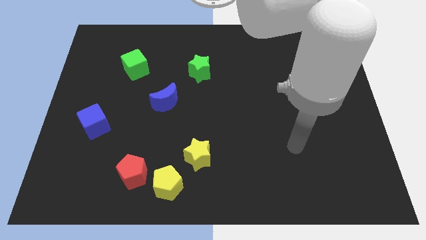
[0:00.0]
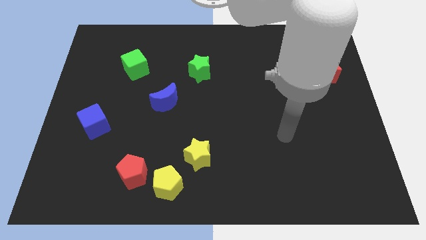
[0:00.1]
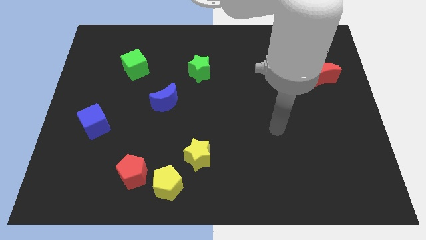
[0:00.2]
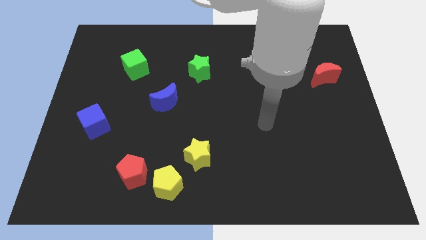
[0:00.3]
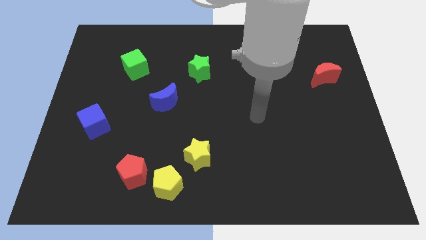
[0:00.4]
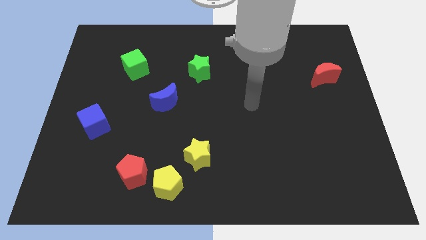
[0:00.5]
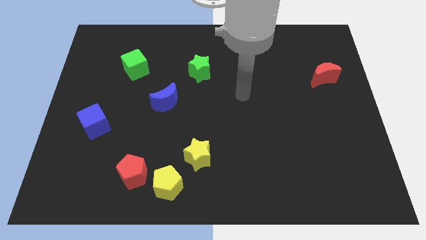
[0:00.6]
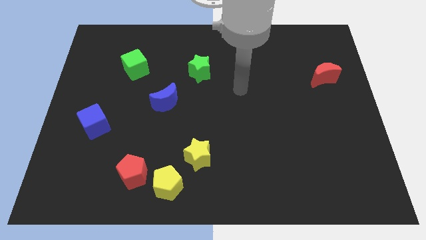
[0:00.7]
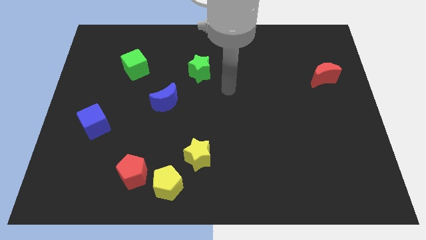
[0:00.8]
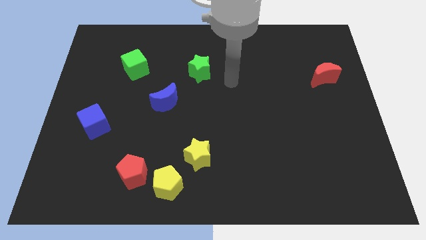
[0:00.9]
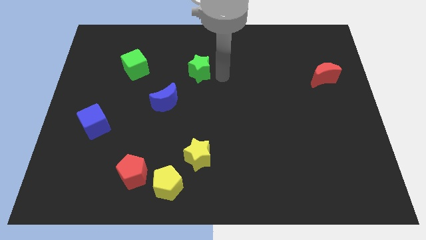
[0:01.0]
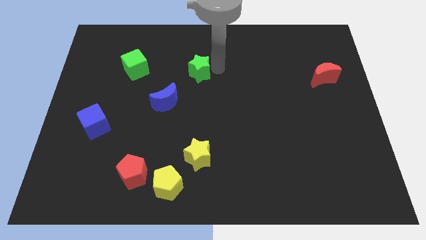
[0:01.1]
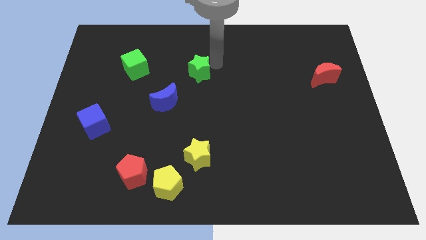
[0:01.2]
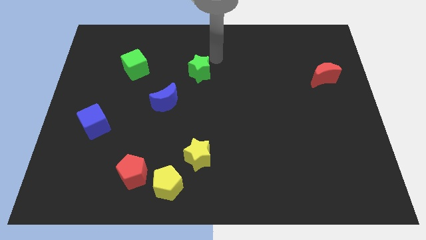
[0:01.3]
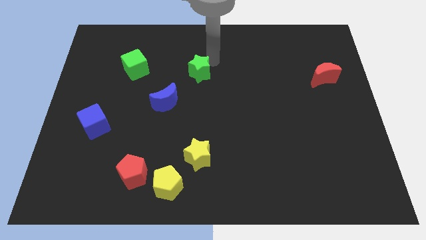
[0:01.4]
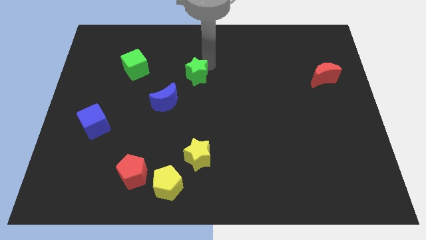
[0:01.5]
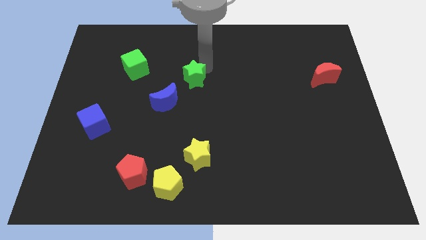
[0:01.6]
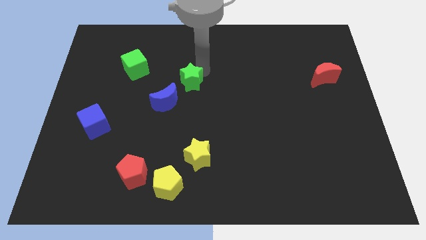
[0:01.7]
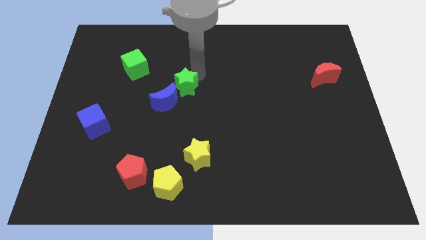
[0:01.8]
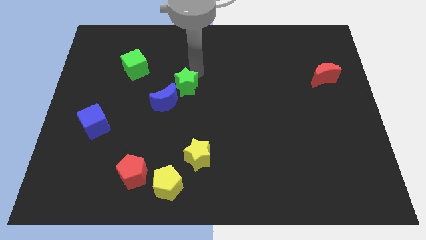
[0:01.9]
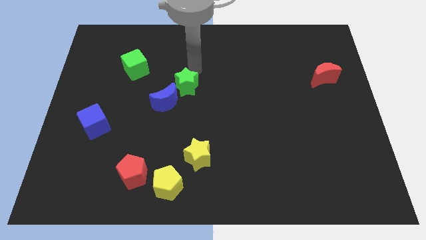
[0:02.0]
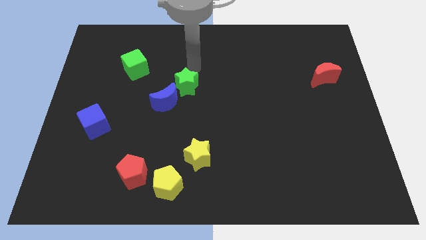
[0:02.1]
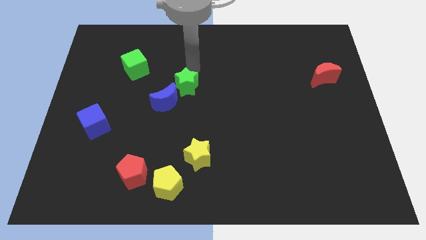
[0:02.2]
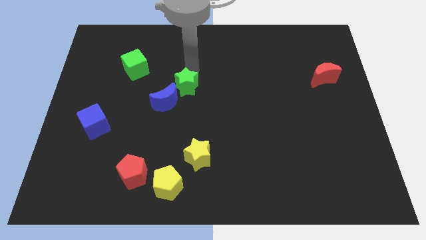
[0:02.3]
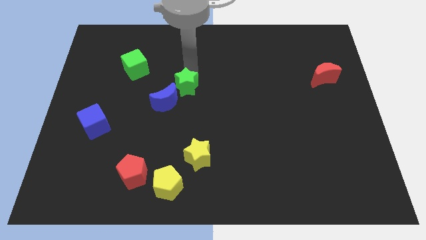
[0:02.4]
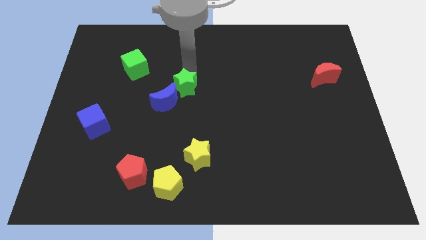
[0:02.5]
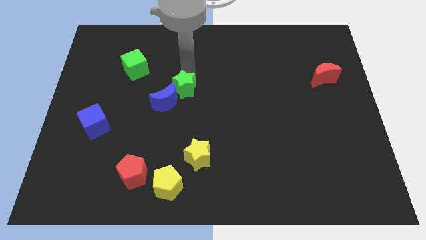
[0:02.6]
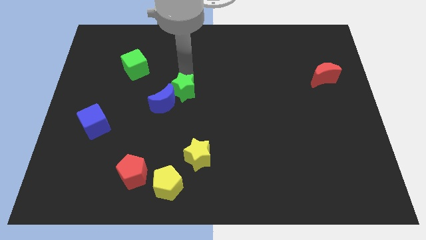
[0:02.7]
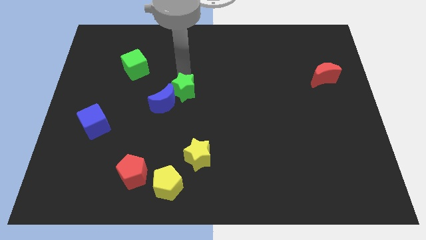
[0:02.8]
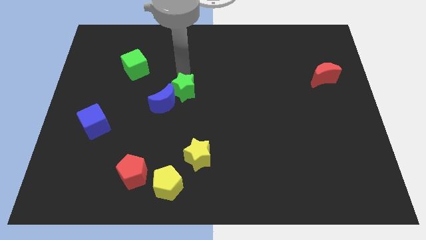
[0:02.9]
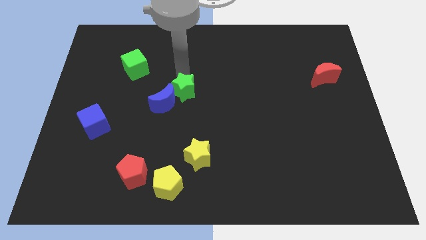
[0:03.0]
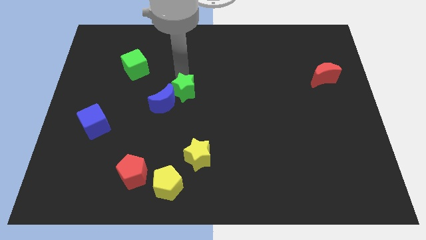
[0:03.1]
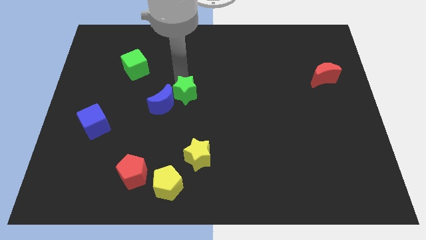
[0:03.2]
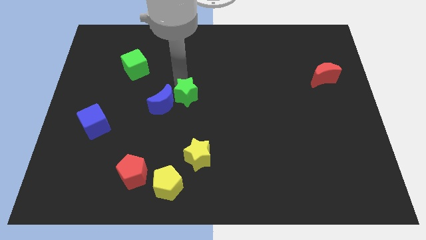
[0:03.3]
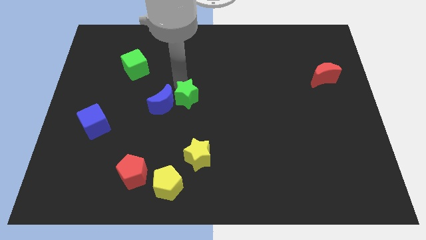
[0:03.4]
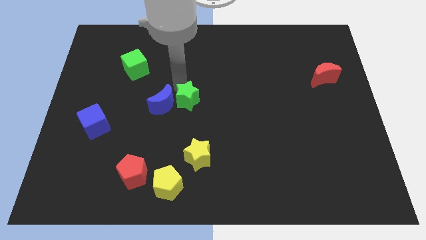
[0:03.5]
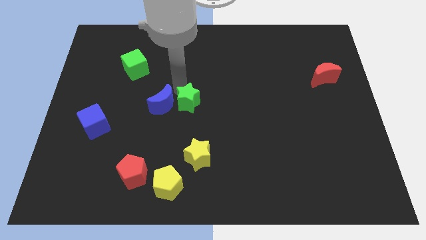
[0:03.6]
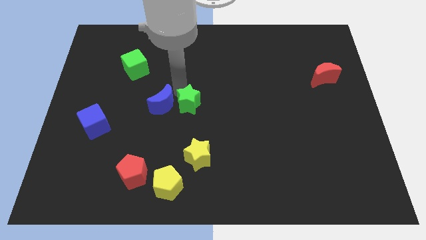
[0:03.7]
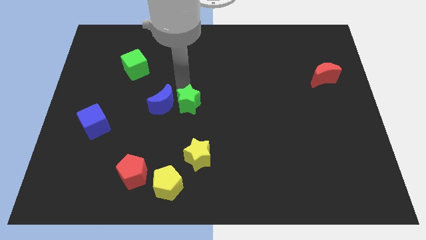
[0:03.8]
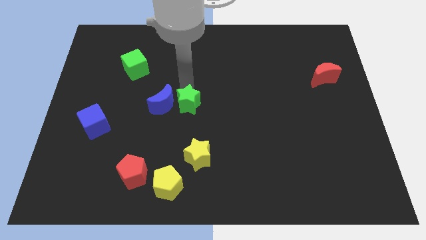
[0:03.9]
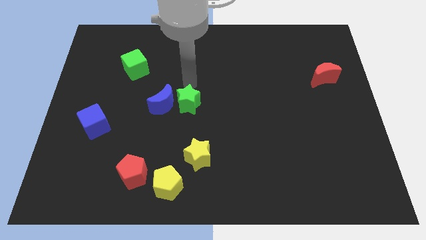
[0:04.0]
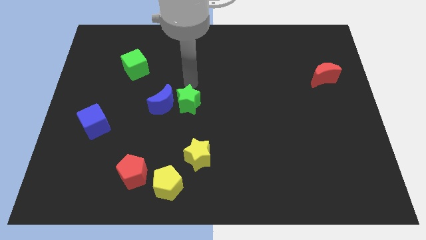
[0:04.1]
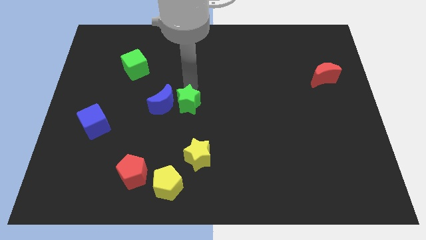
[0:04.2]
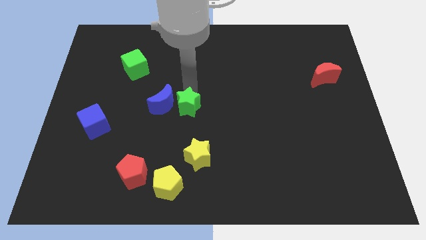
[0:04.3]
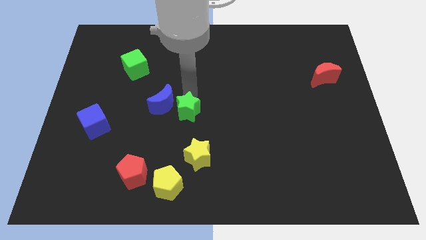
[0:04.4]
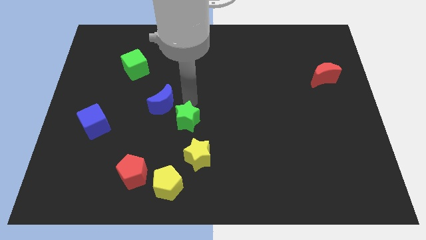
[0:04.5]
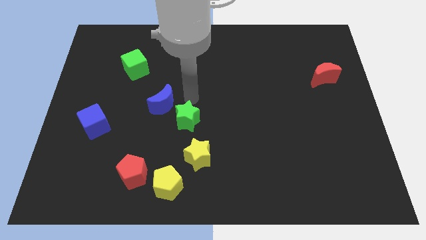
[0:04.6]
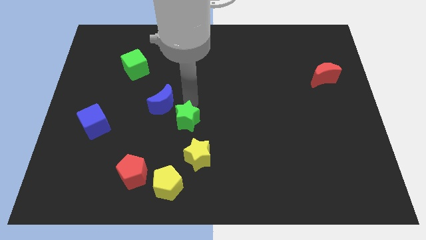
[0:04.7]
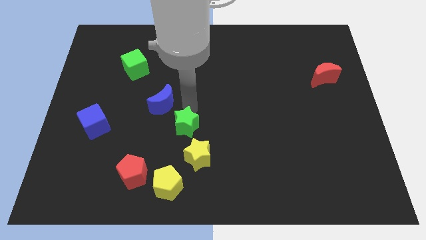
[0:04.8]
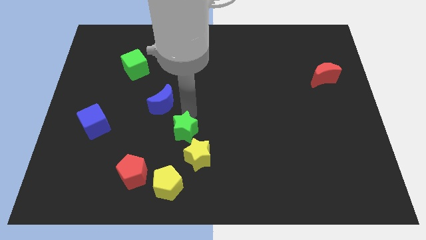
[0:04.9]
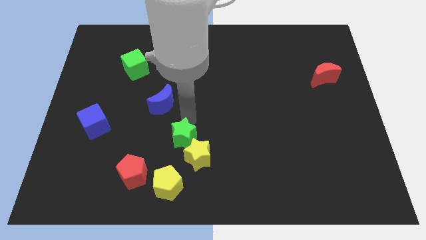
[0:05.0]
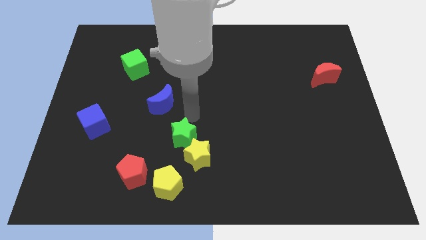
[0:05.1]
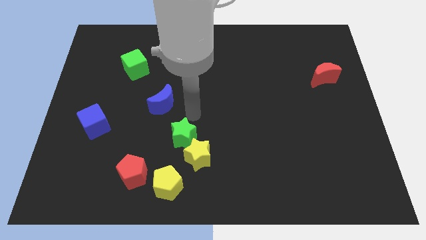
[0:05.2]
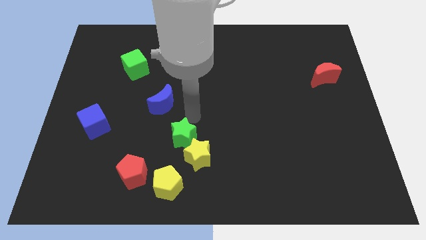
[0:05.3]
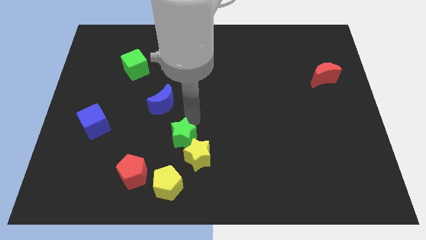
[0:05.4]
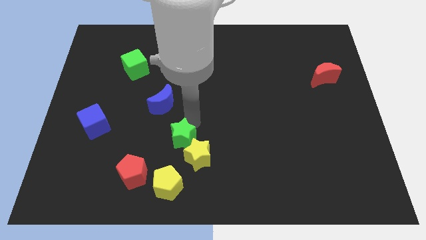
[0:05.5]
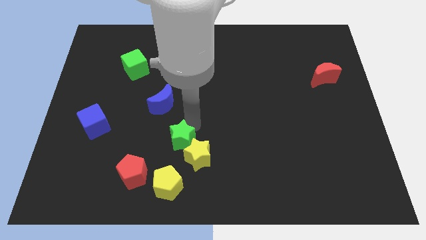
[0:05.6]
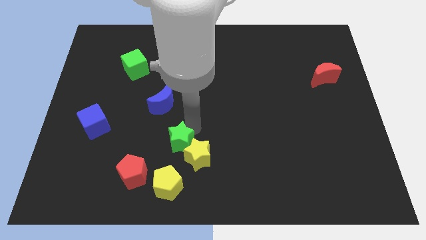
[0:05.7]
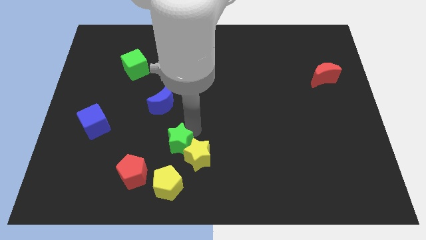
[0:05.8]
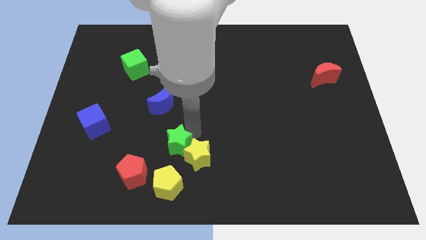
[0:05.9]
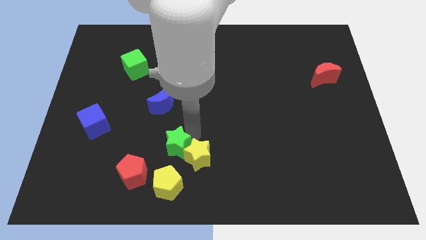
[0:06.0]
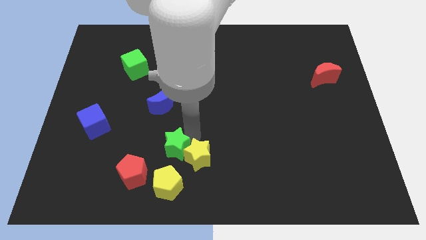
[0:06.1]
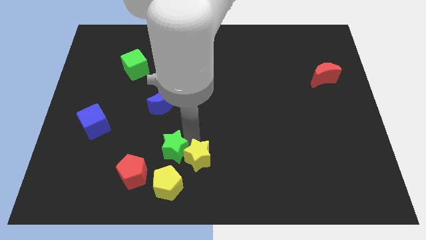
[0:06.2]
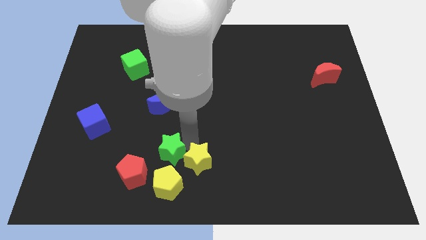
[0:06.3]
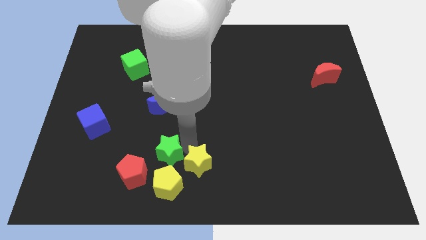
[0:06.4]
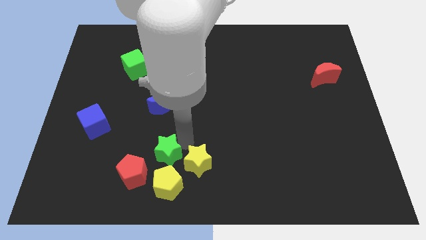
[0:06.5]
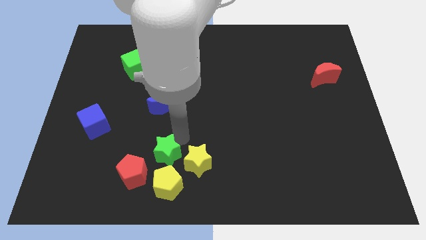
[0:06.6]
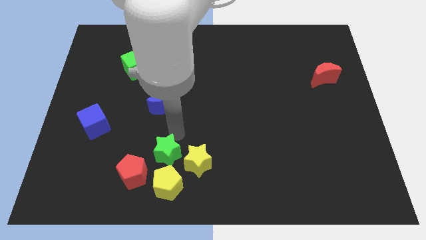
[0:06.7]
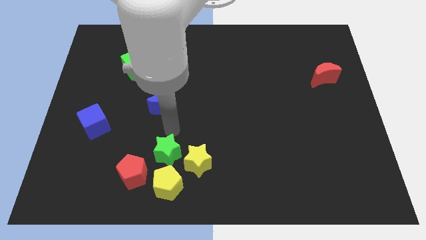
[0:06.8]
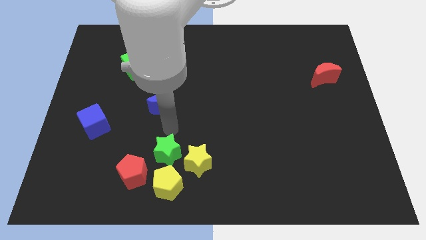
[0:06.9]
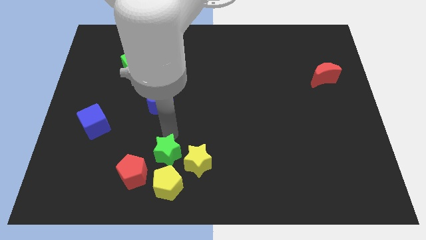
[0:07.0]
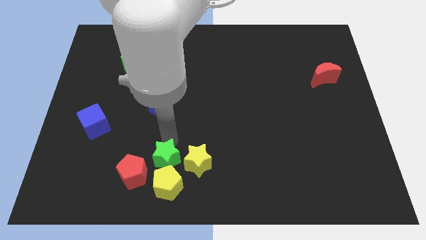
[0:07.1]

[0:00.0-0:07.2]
slide the green star to the yellow pentagon
